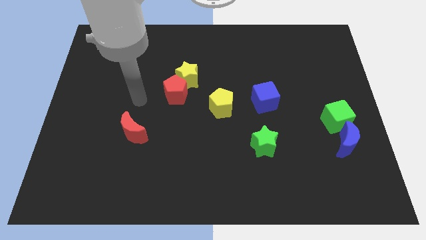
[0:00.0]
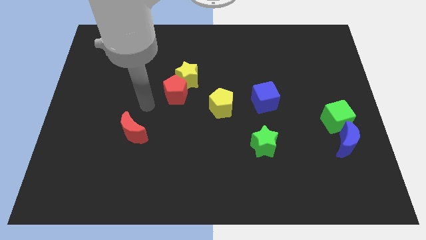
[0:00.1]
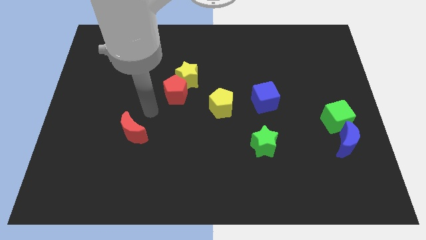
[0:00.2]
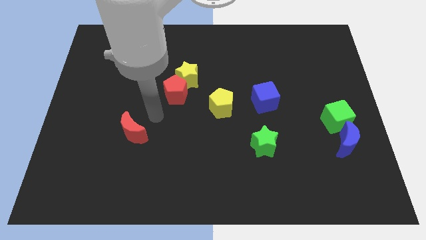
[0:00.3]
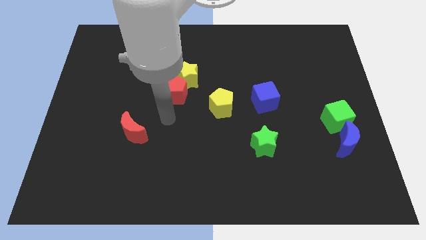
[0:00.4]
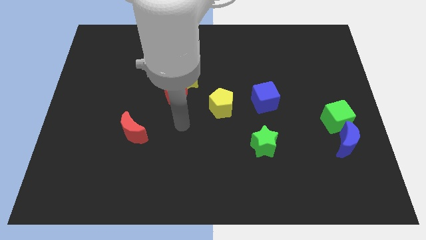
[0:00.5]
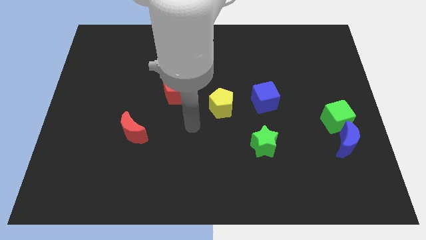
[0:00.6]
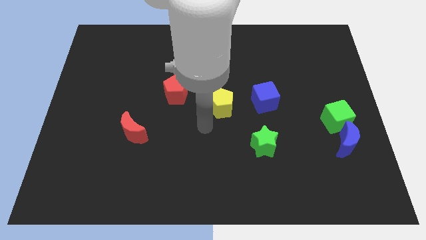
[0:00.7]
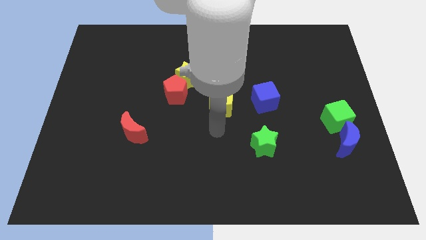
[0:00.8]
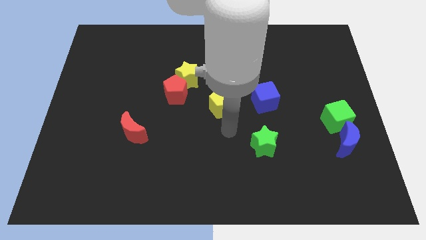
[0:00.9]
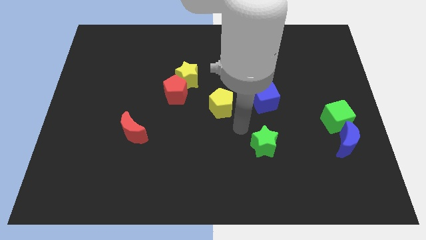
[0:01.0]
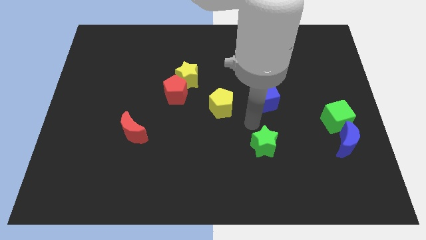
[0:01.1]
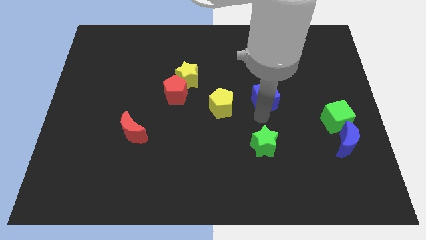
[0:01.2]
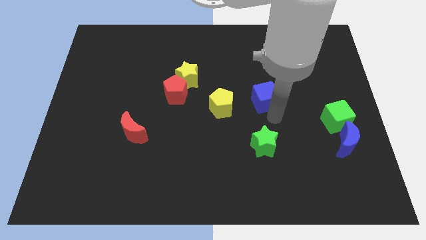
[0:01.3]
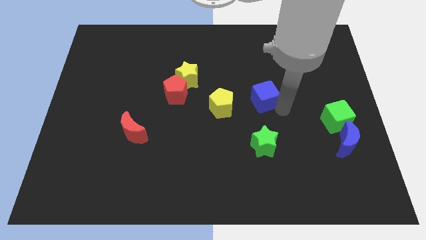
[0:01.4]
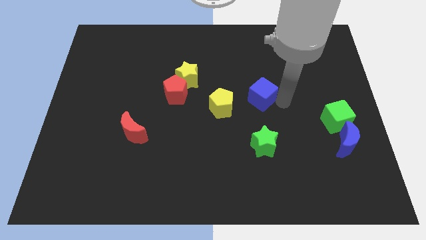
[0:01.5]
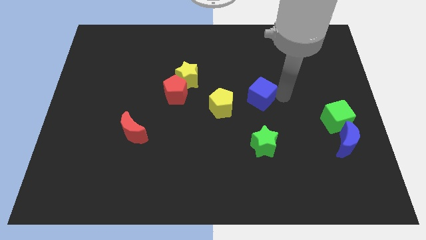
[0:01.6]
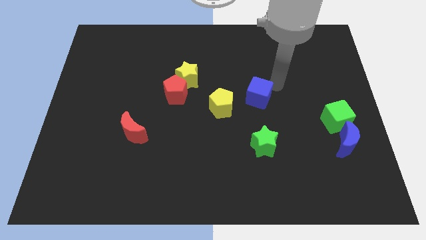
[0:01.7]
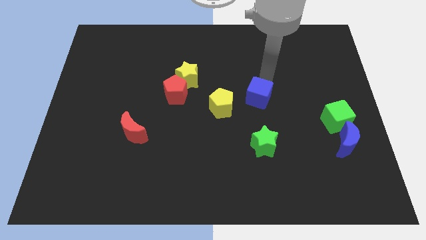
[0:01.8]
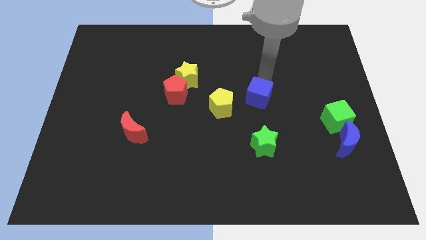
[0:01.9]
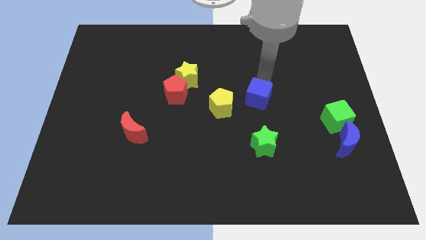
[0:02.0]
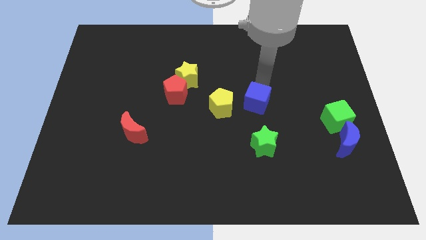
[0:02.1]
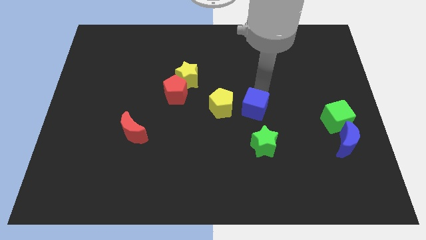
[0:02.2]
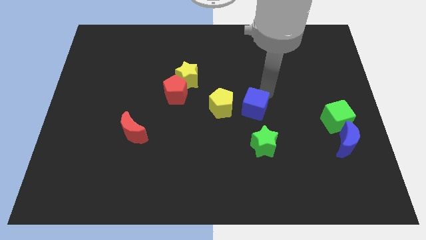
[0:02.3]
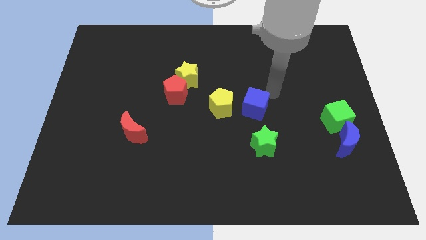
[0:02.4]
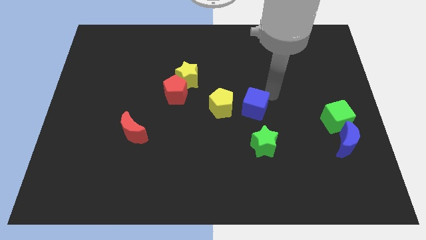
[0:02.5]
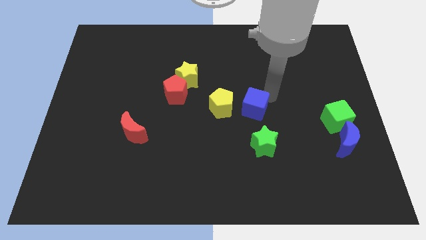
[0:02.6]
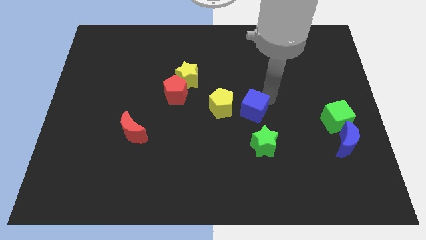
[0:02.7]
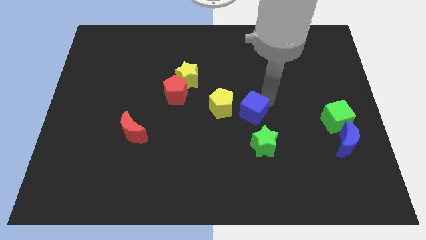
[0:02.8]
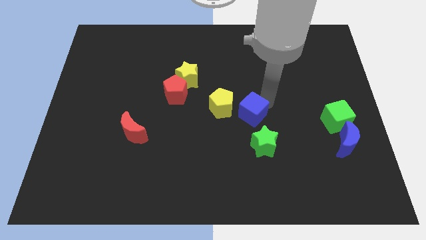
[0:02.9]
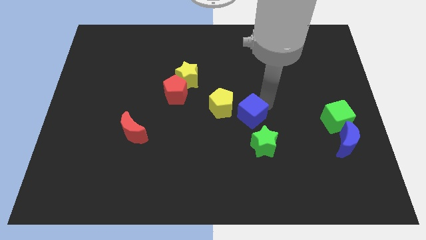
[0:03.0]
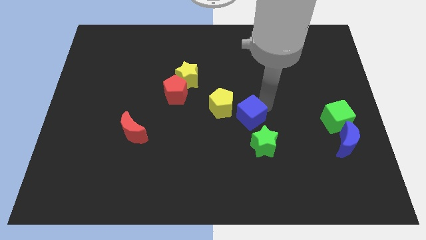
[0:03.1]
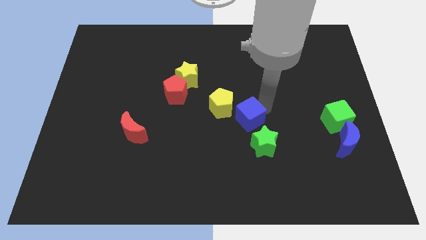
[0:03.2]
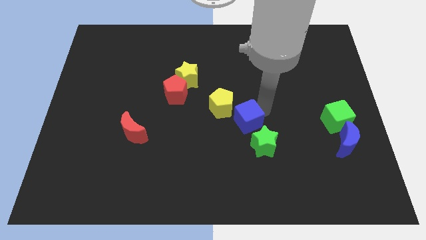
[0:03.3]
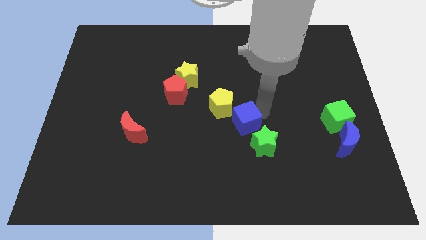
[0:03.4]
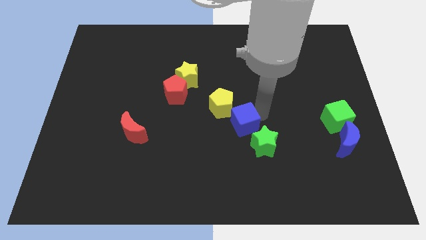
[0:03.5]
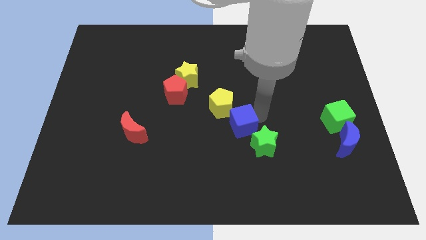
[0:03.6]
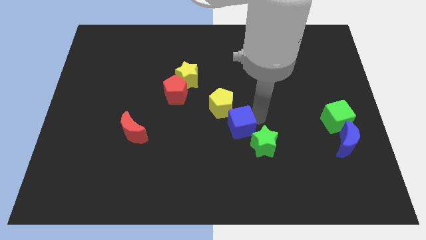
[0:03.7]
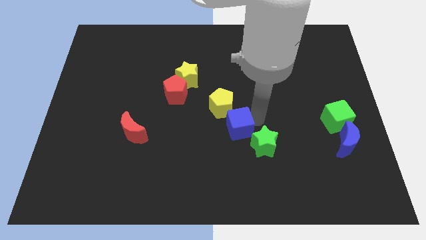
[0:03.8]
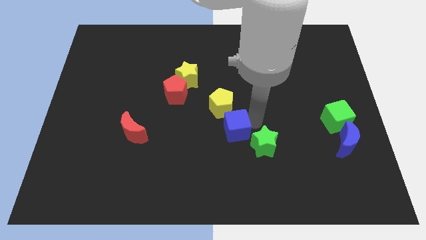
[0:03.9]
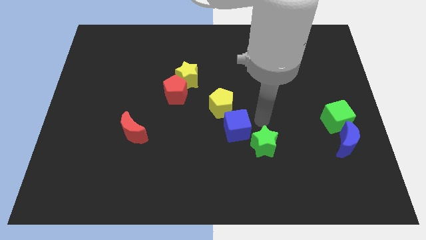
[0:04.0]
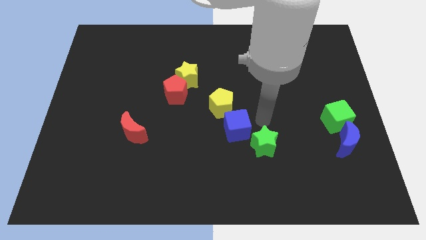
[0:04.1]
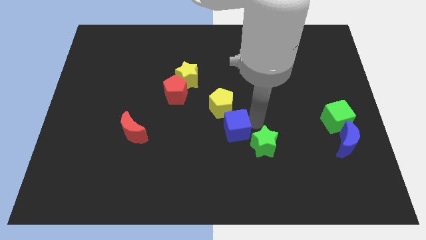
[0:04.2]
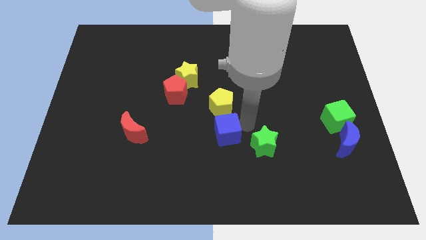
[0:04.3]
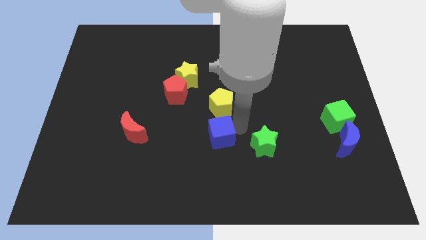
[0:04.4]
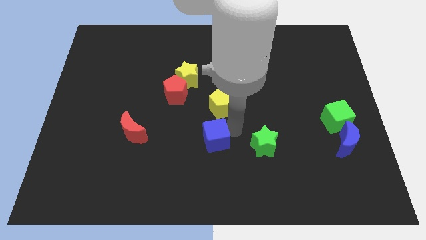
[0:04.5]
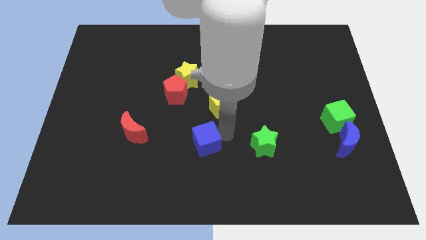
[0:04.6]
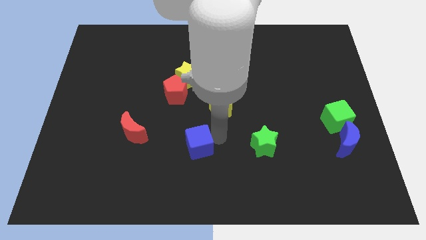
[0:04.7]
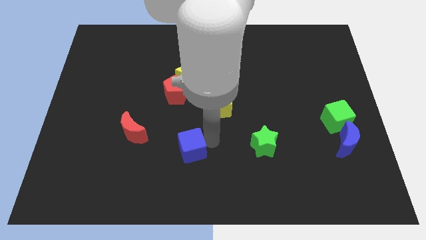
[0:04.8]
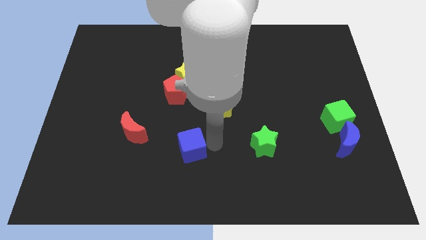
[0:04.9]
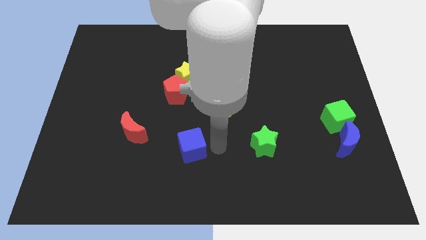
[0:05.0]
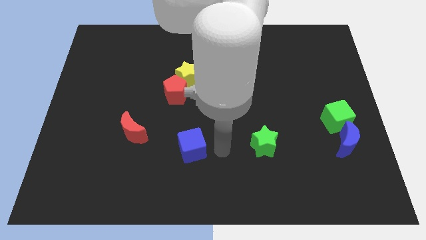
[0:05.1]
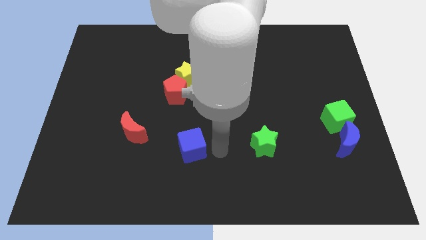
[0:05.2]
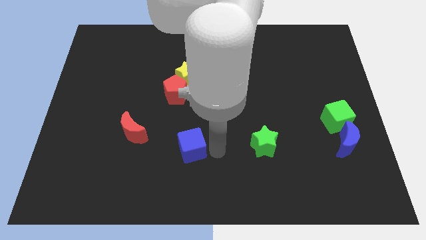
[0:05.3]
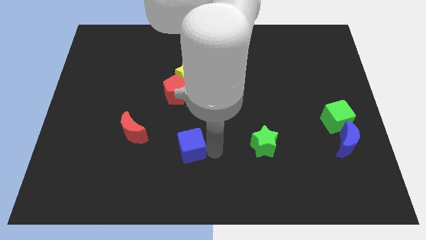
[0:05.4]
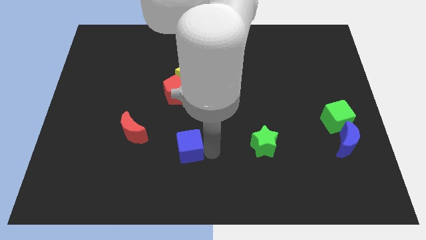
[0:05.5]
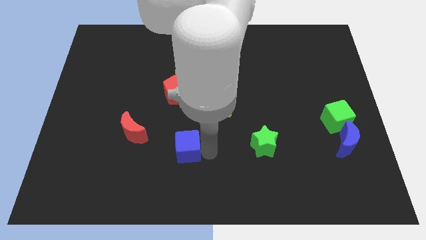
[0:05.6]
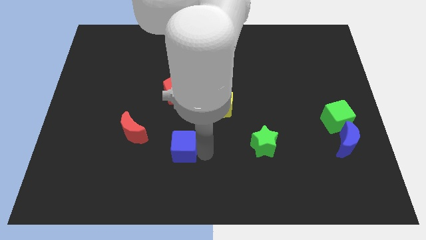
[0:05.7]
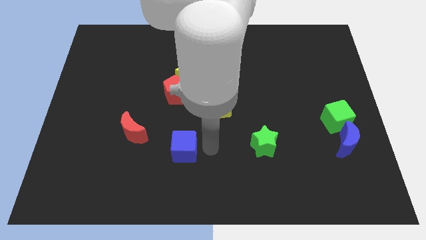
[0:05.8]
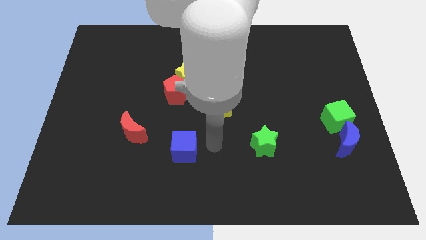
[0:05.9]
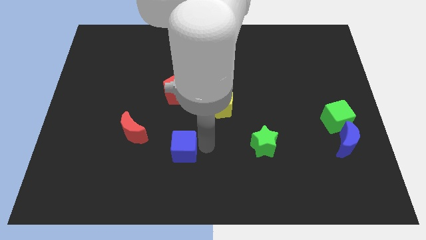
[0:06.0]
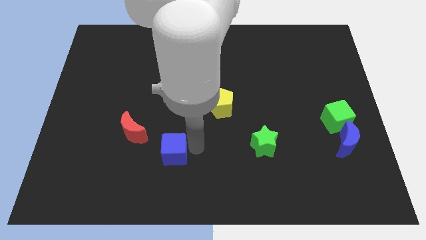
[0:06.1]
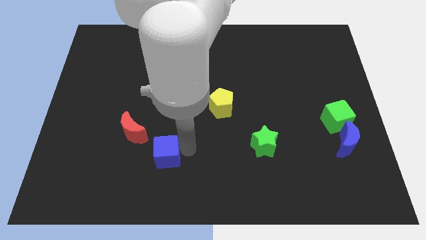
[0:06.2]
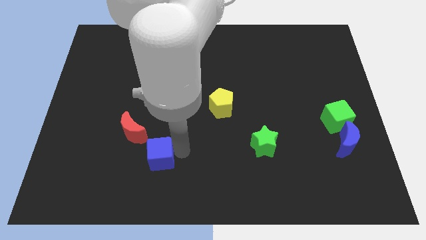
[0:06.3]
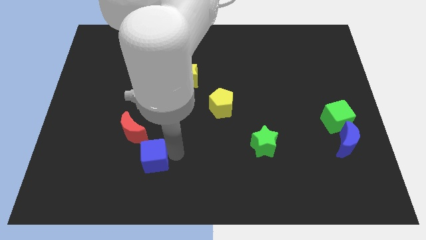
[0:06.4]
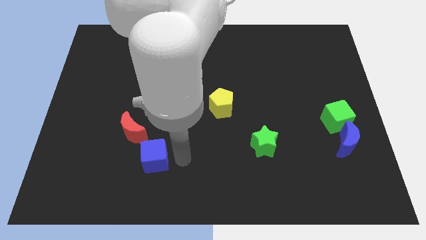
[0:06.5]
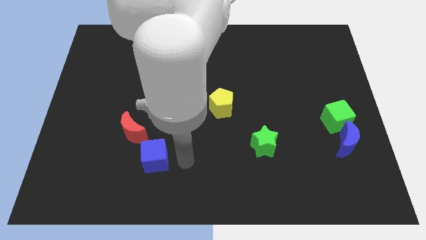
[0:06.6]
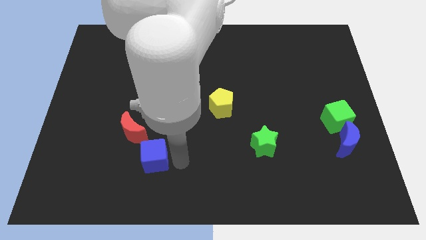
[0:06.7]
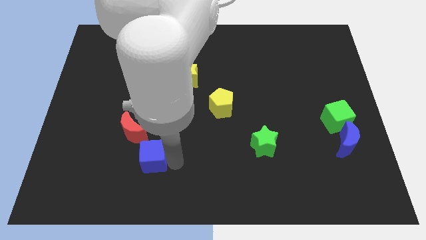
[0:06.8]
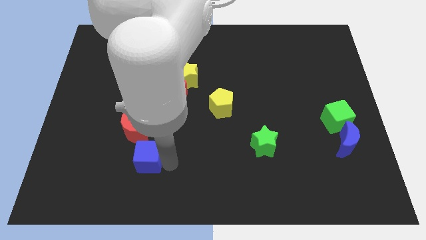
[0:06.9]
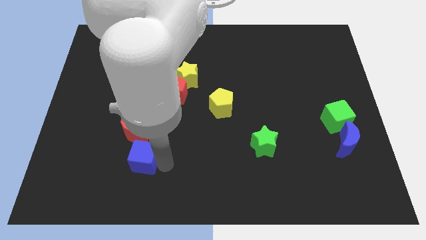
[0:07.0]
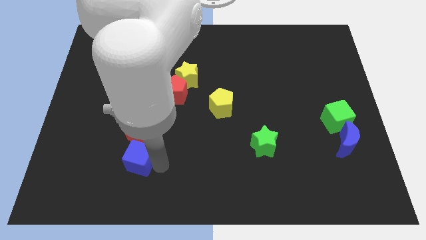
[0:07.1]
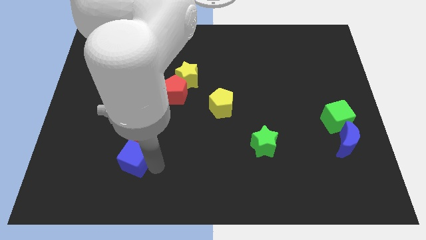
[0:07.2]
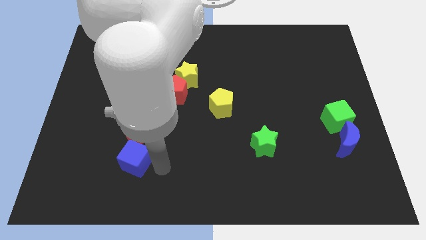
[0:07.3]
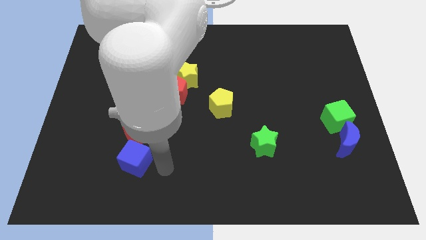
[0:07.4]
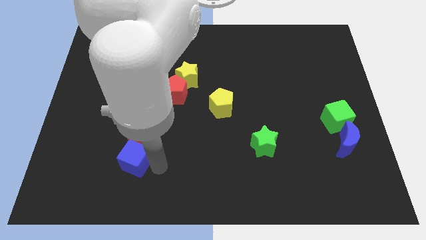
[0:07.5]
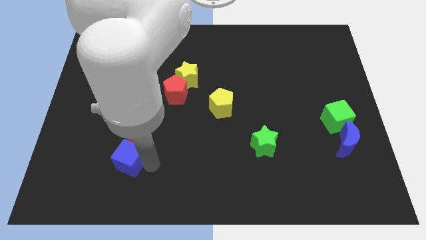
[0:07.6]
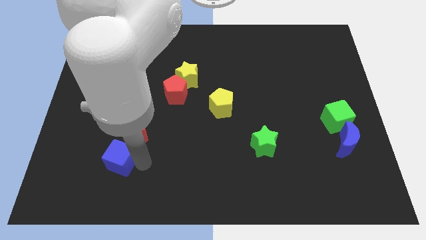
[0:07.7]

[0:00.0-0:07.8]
put the blue cube diagonally down and to the left of the red moon
